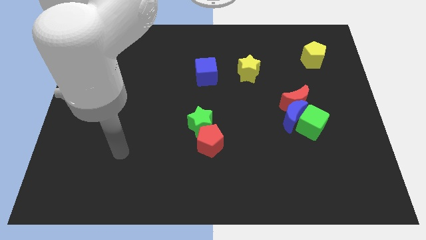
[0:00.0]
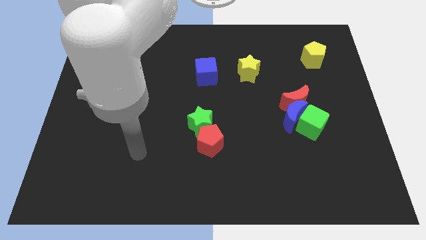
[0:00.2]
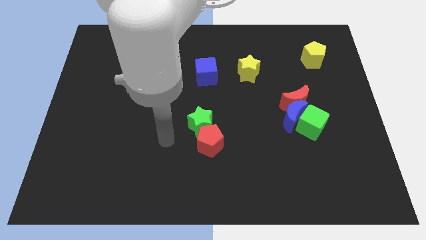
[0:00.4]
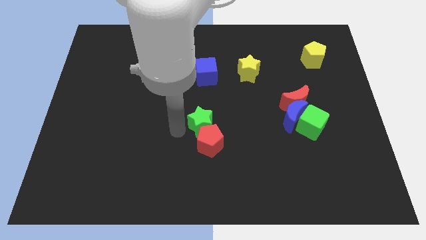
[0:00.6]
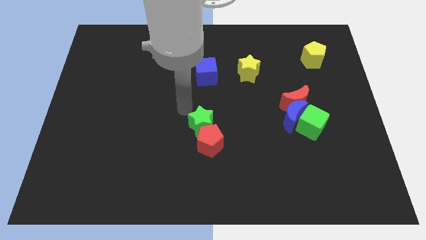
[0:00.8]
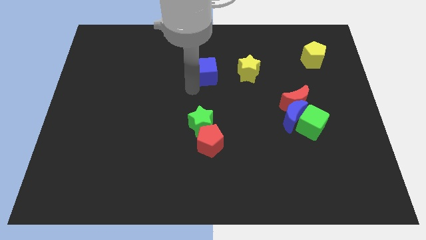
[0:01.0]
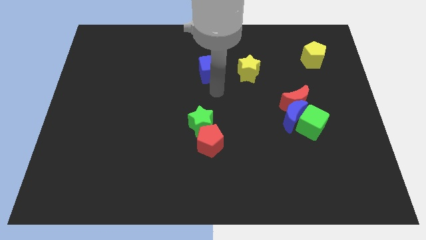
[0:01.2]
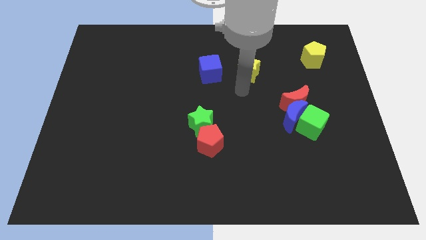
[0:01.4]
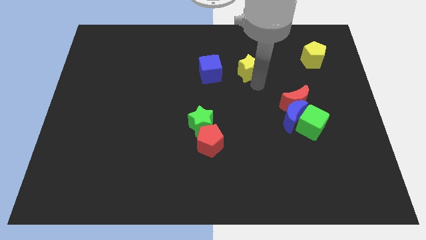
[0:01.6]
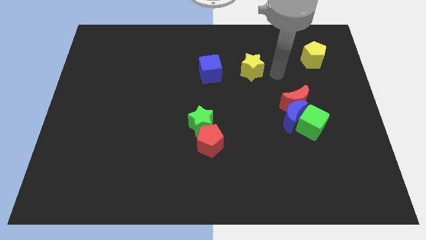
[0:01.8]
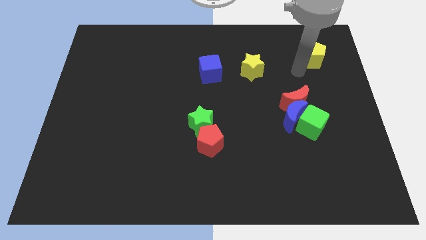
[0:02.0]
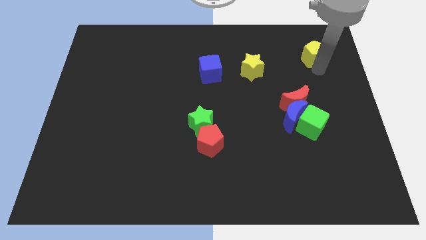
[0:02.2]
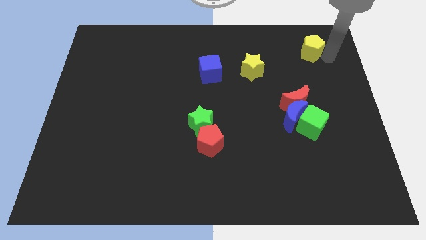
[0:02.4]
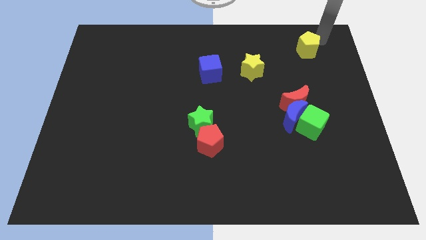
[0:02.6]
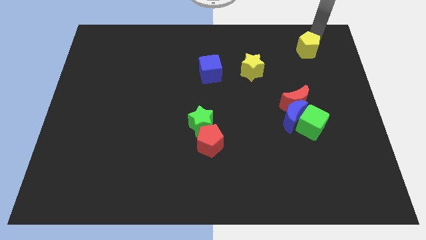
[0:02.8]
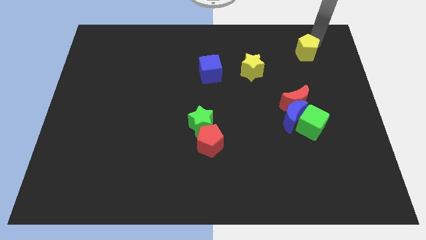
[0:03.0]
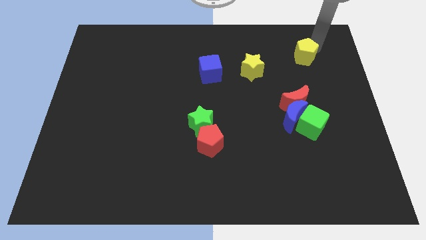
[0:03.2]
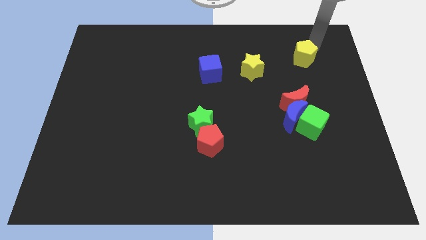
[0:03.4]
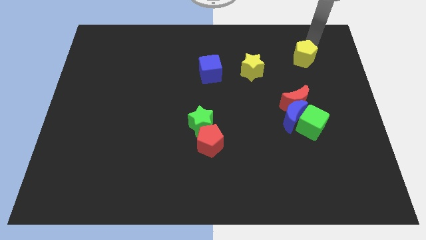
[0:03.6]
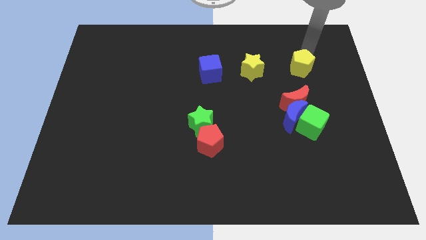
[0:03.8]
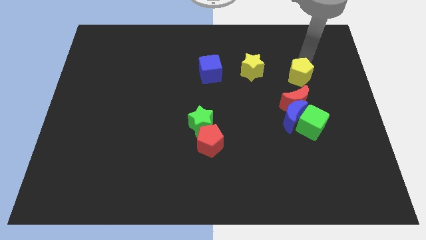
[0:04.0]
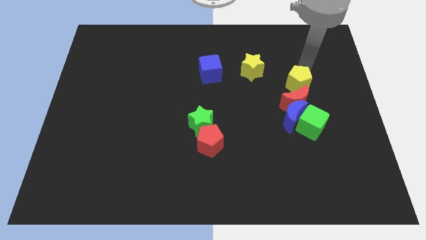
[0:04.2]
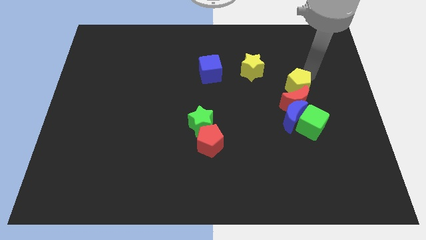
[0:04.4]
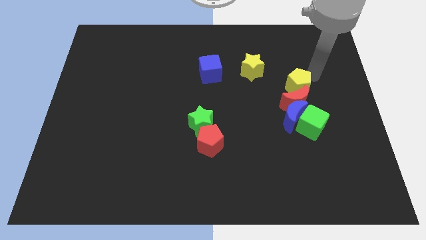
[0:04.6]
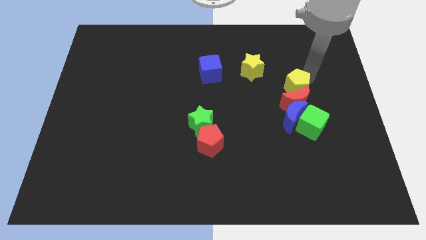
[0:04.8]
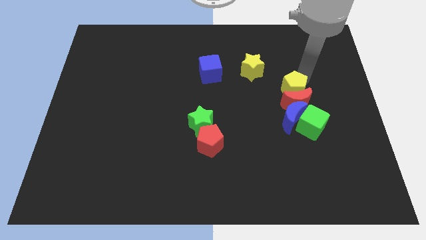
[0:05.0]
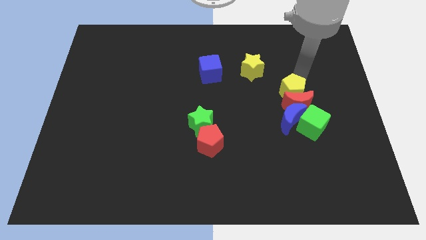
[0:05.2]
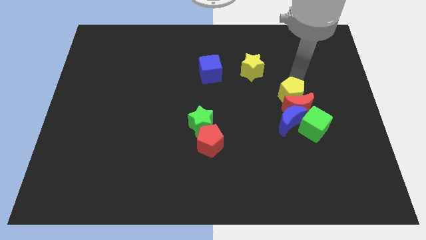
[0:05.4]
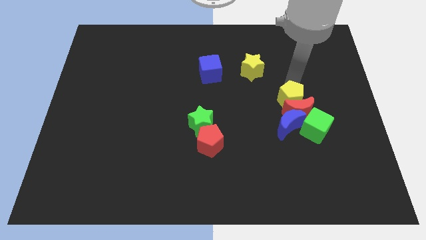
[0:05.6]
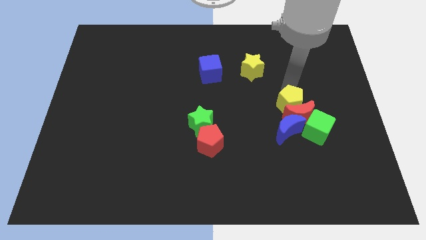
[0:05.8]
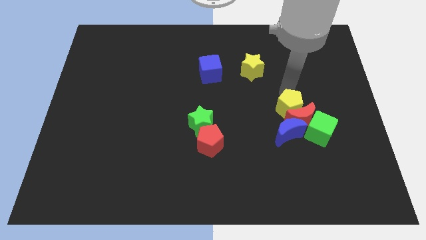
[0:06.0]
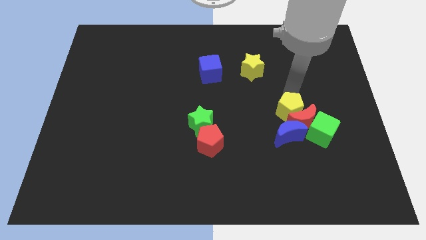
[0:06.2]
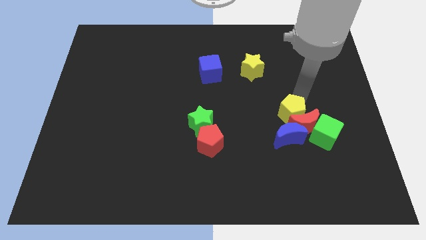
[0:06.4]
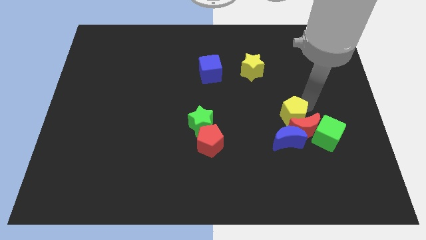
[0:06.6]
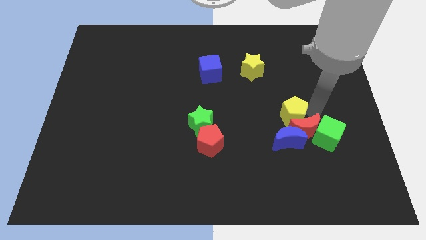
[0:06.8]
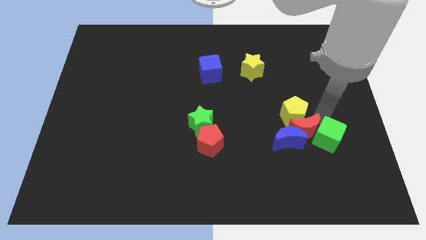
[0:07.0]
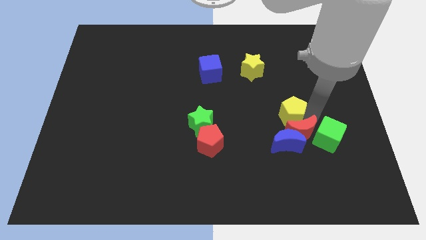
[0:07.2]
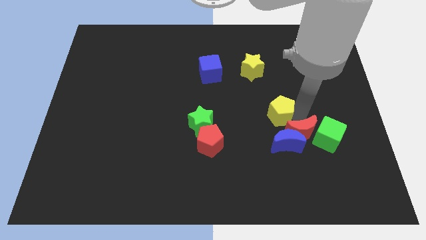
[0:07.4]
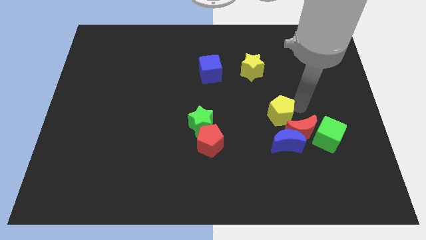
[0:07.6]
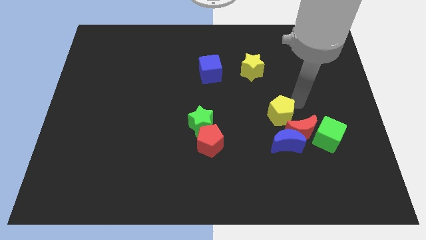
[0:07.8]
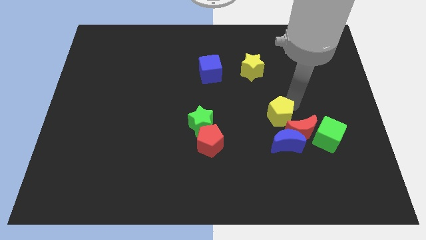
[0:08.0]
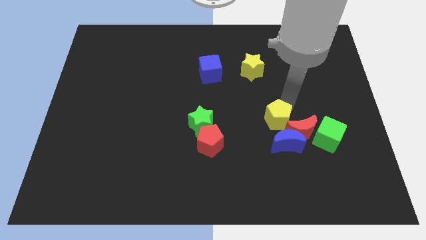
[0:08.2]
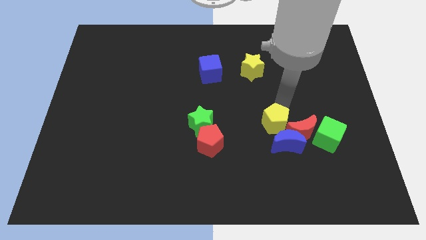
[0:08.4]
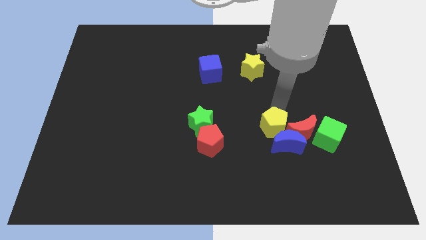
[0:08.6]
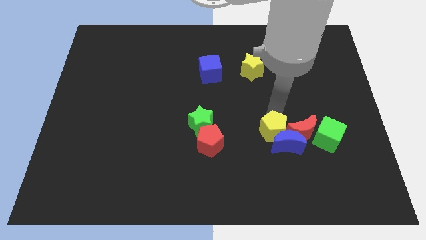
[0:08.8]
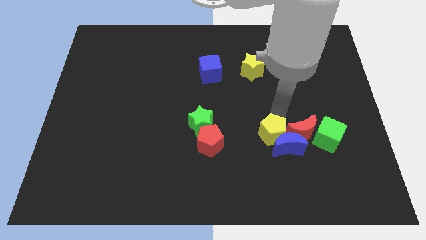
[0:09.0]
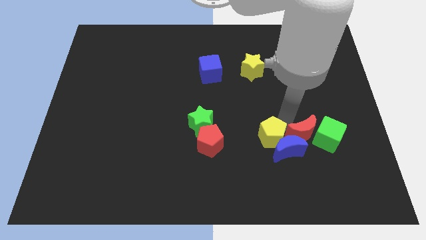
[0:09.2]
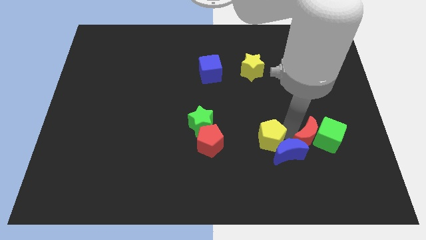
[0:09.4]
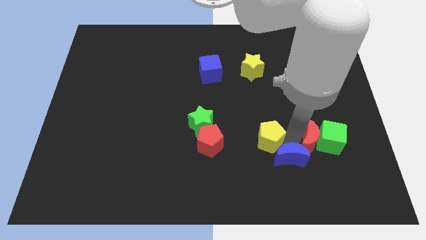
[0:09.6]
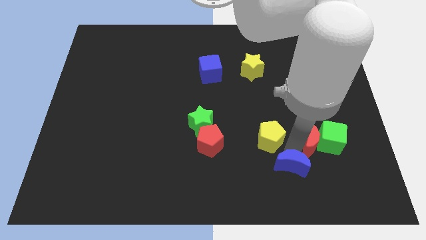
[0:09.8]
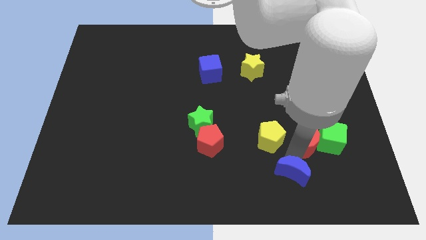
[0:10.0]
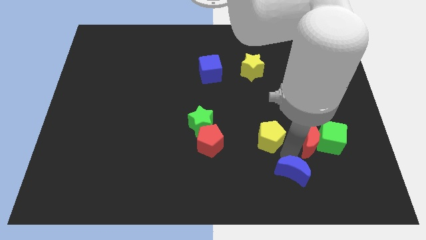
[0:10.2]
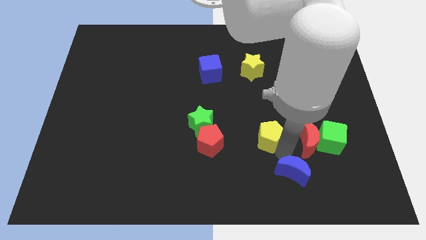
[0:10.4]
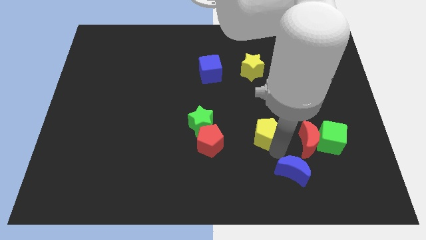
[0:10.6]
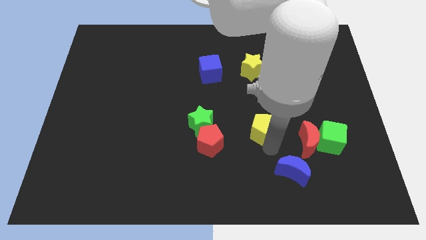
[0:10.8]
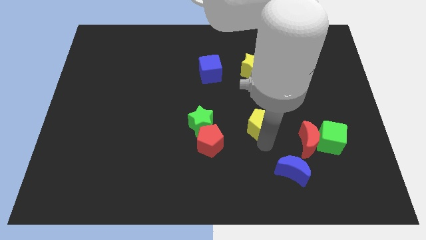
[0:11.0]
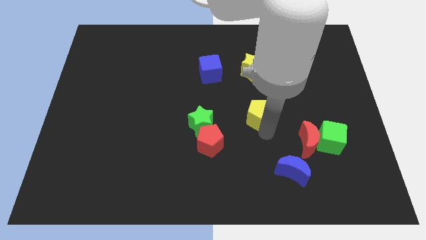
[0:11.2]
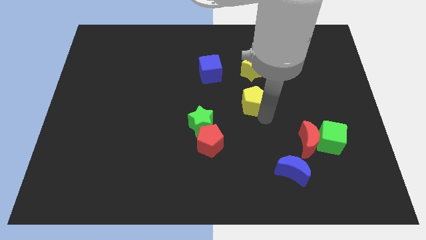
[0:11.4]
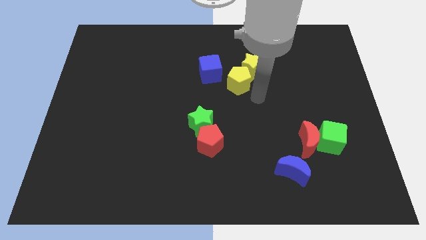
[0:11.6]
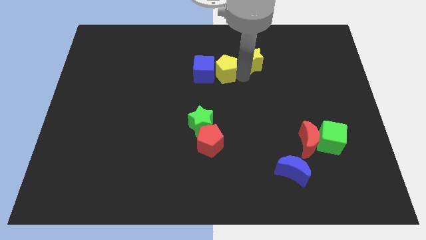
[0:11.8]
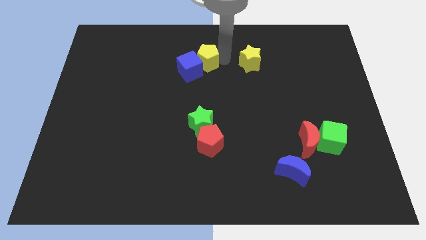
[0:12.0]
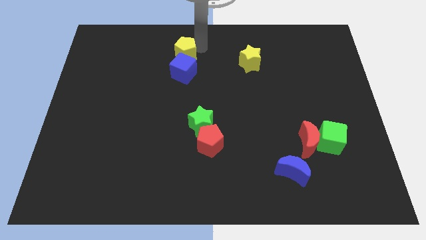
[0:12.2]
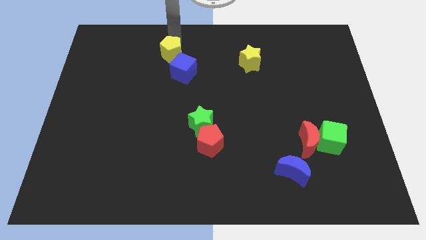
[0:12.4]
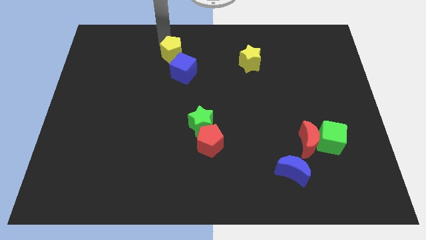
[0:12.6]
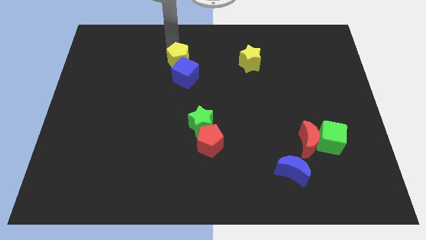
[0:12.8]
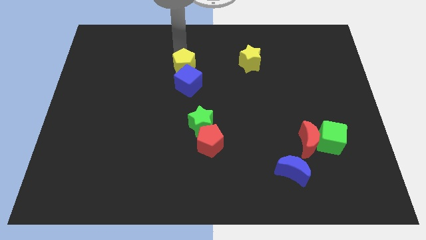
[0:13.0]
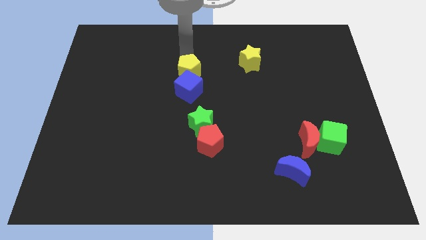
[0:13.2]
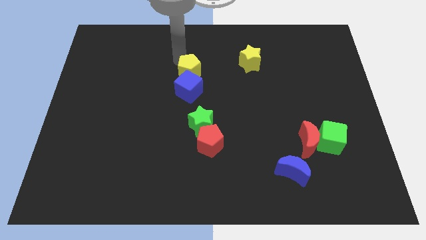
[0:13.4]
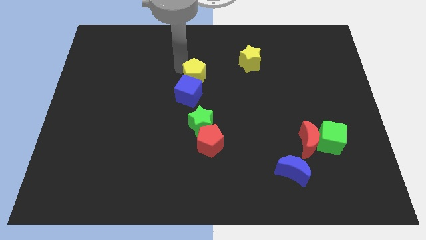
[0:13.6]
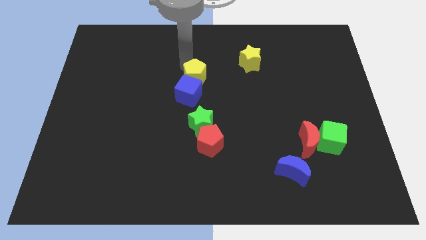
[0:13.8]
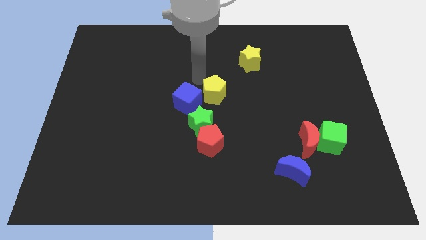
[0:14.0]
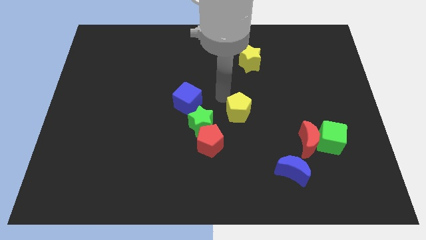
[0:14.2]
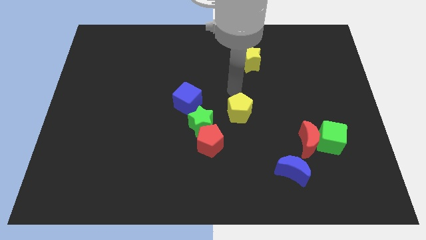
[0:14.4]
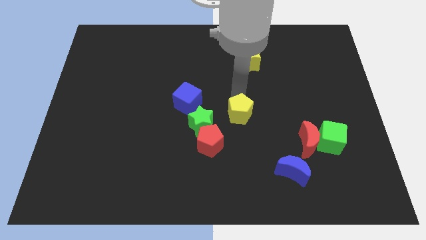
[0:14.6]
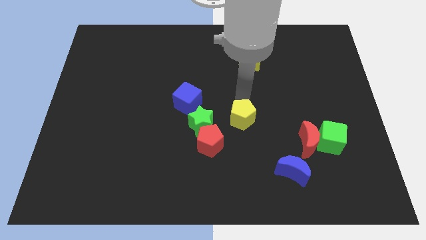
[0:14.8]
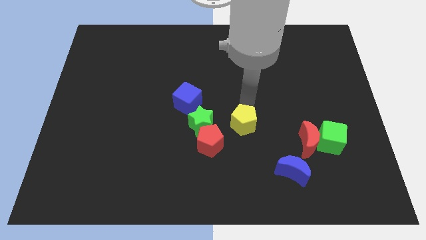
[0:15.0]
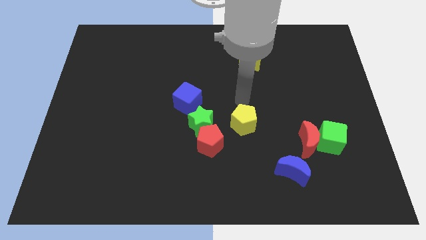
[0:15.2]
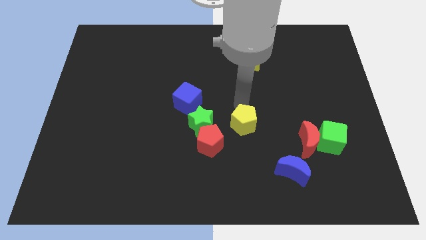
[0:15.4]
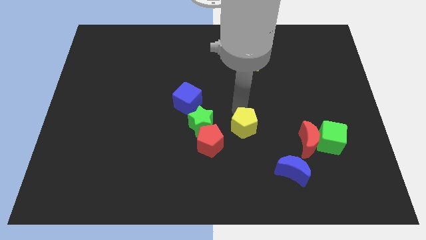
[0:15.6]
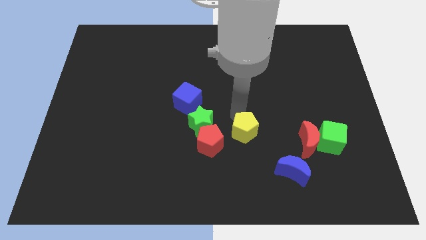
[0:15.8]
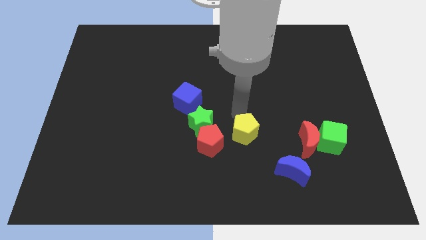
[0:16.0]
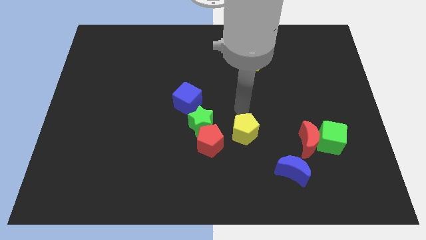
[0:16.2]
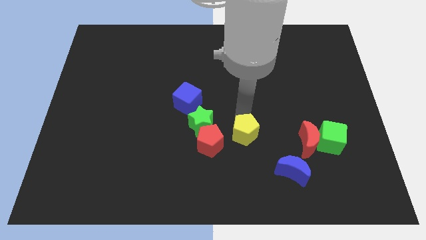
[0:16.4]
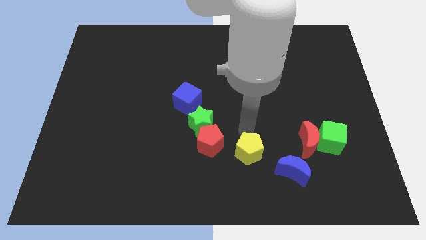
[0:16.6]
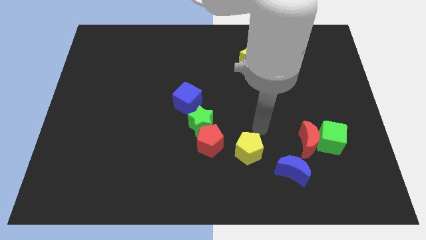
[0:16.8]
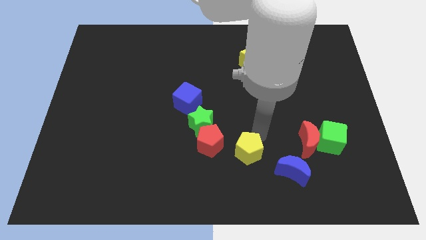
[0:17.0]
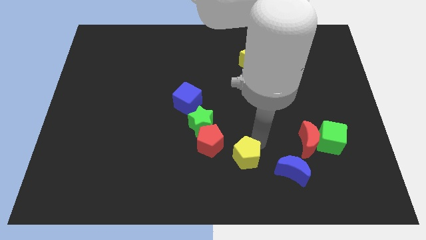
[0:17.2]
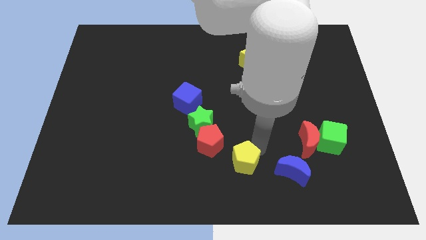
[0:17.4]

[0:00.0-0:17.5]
put the yellow pentagon to the bottom
